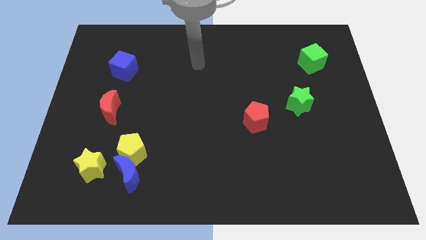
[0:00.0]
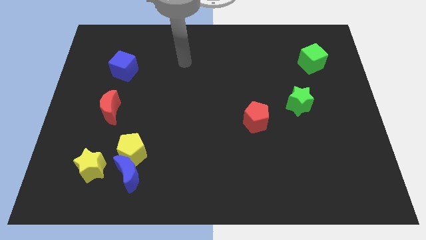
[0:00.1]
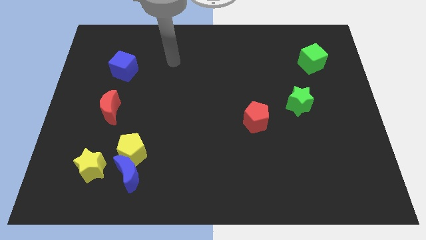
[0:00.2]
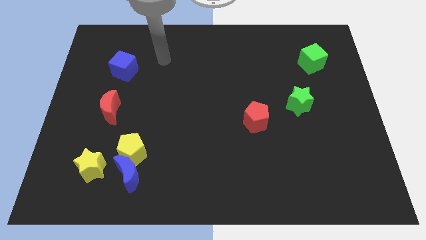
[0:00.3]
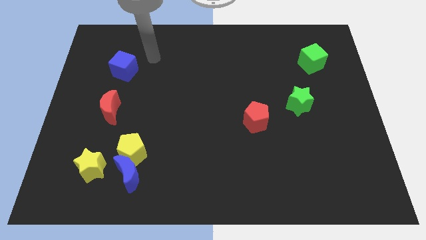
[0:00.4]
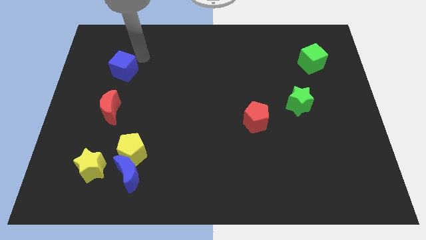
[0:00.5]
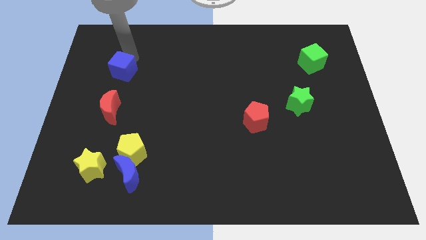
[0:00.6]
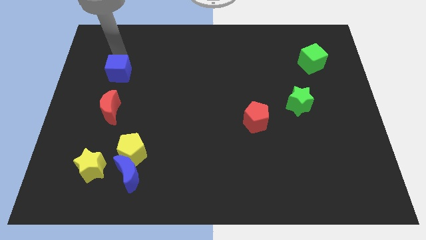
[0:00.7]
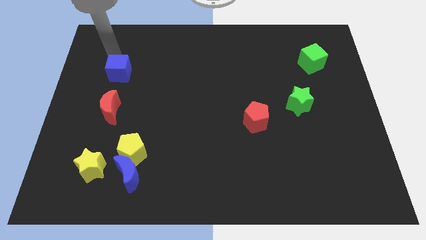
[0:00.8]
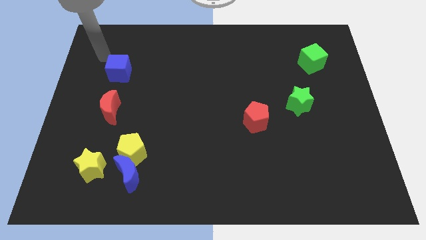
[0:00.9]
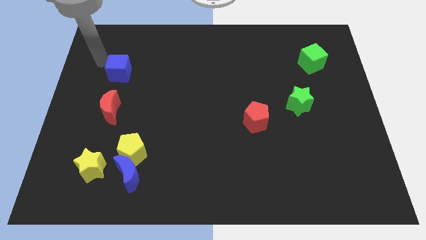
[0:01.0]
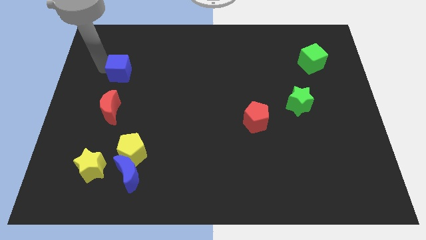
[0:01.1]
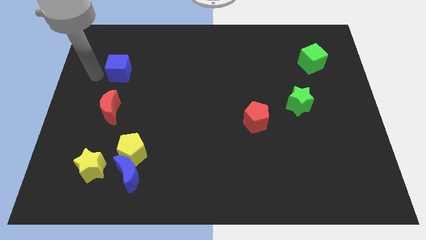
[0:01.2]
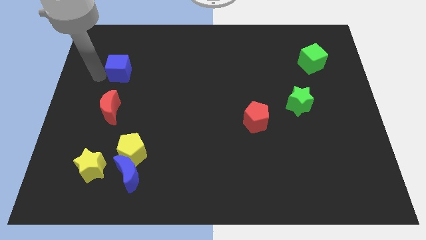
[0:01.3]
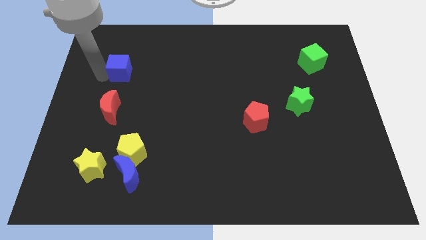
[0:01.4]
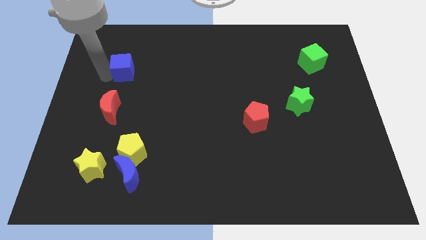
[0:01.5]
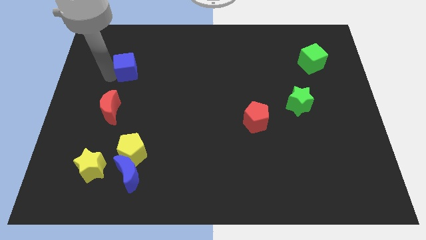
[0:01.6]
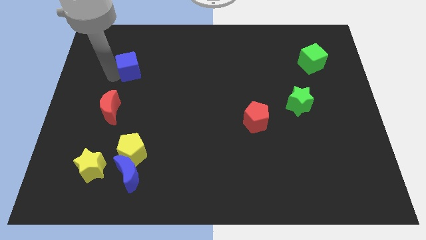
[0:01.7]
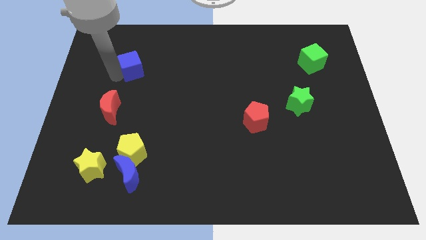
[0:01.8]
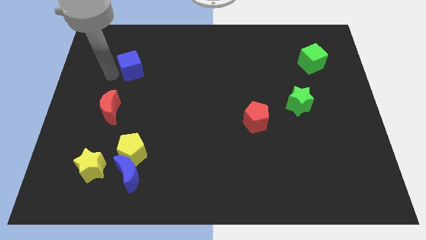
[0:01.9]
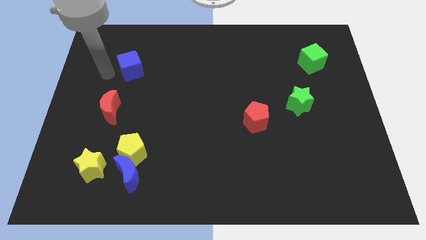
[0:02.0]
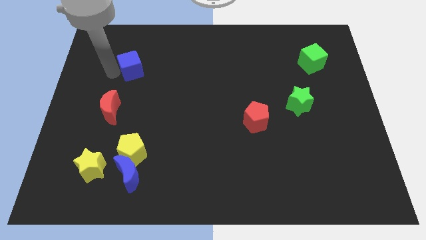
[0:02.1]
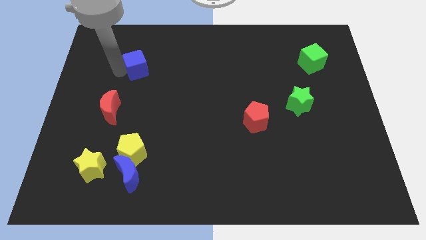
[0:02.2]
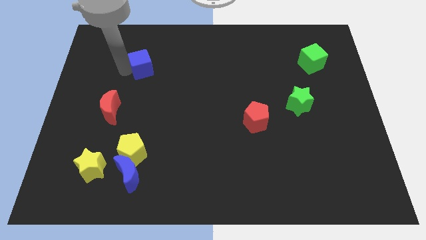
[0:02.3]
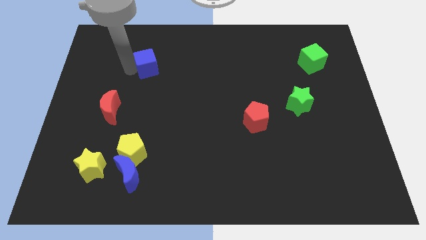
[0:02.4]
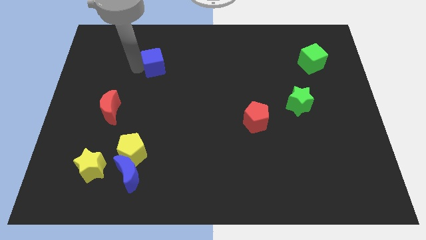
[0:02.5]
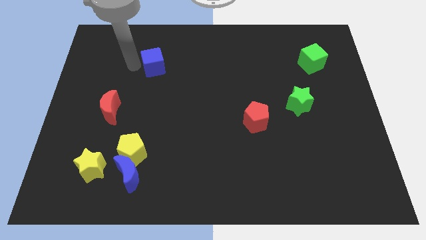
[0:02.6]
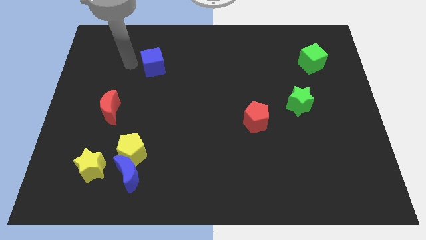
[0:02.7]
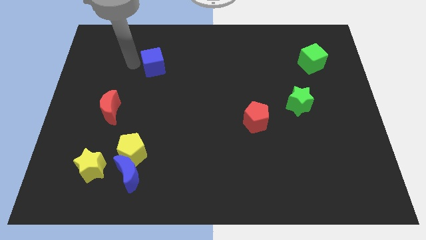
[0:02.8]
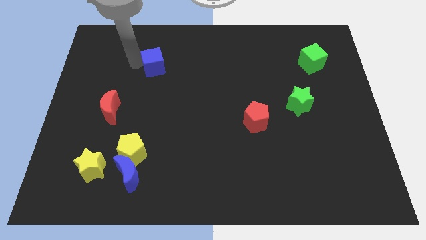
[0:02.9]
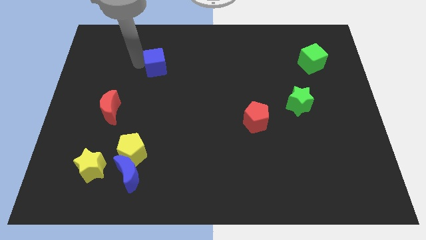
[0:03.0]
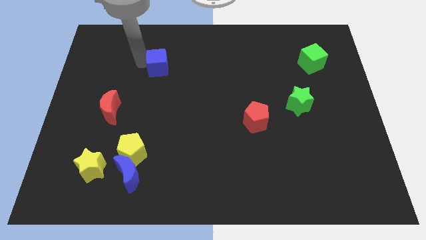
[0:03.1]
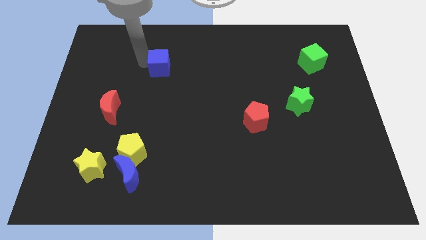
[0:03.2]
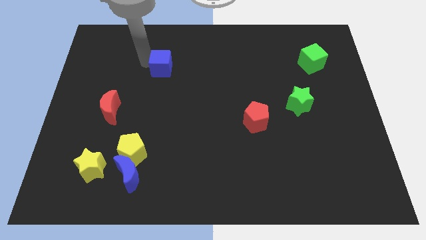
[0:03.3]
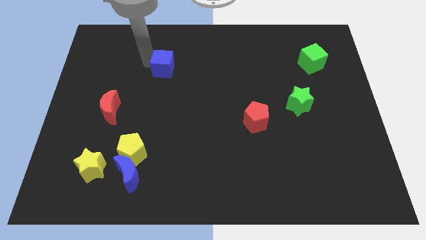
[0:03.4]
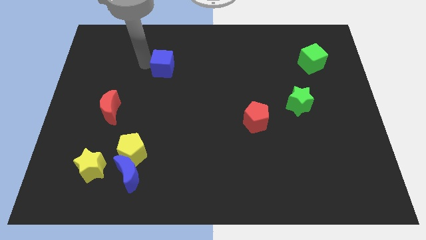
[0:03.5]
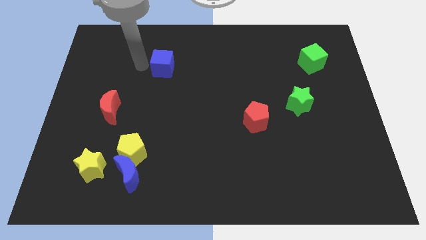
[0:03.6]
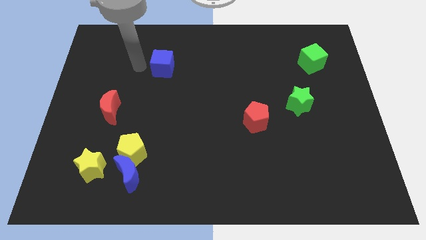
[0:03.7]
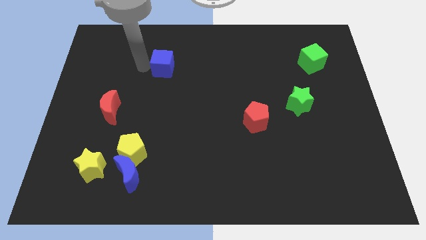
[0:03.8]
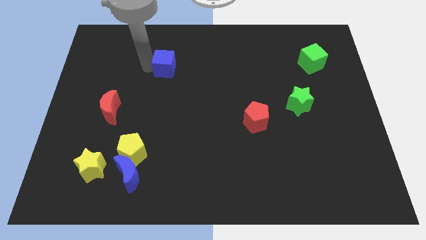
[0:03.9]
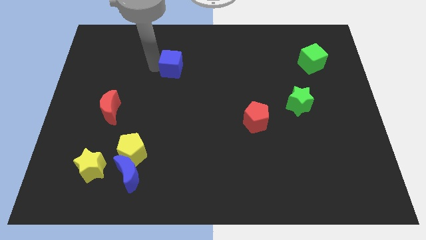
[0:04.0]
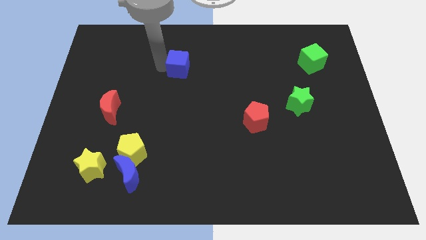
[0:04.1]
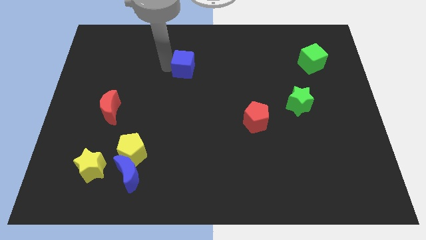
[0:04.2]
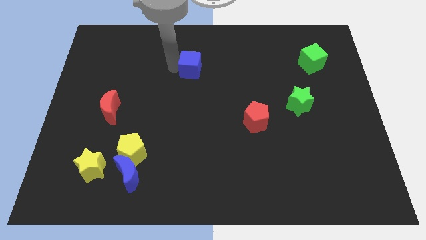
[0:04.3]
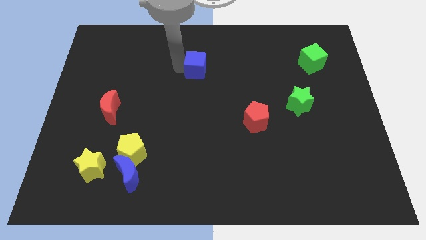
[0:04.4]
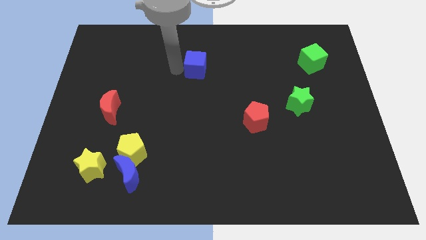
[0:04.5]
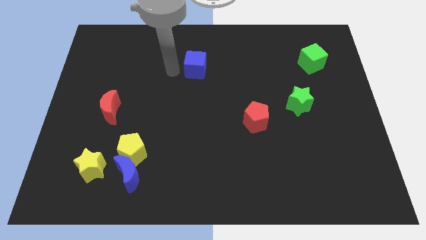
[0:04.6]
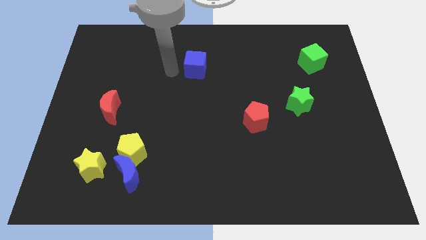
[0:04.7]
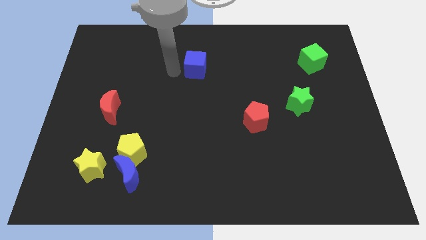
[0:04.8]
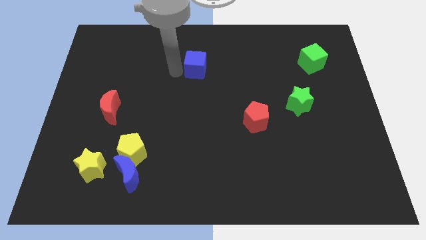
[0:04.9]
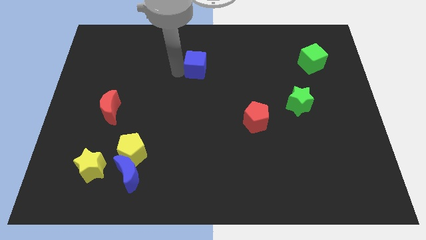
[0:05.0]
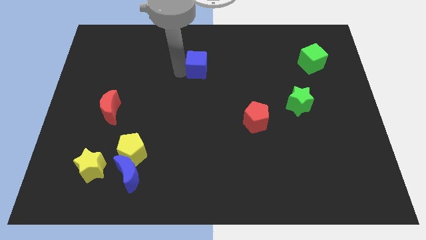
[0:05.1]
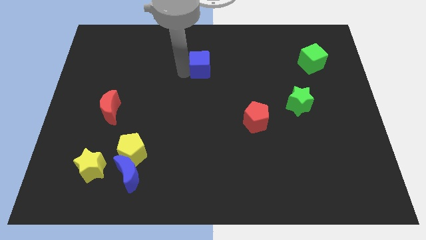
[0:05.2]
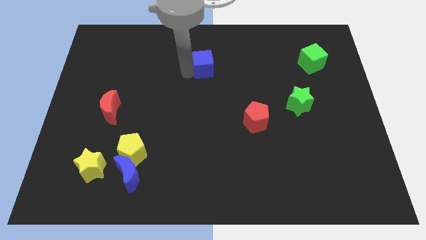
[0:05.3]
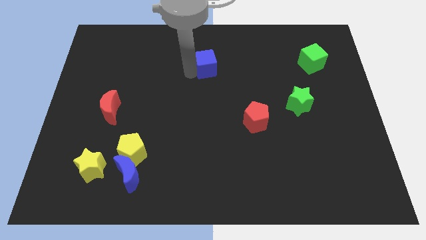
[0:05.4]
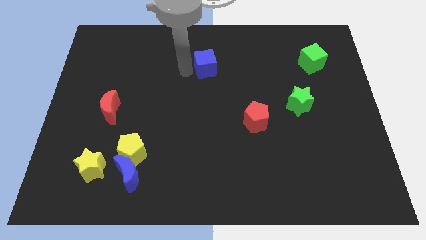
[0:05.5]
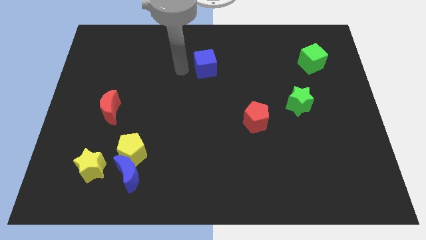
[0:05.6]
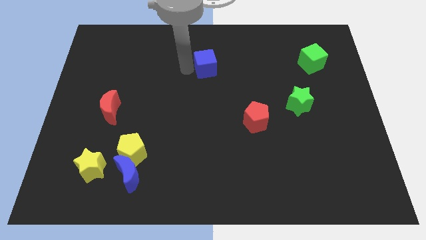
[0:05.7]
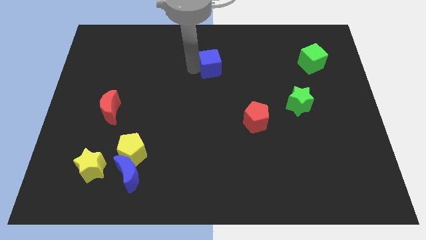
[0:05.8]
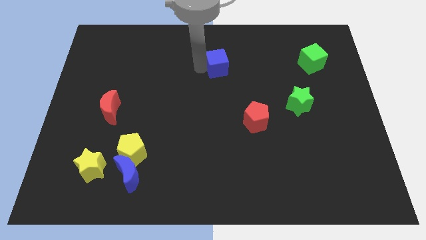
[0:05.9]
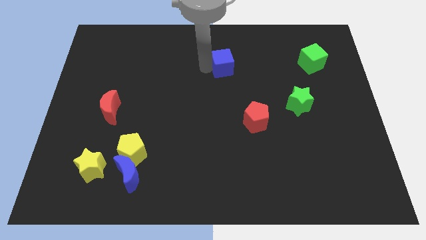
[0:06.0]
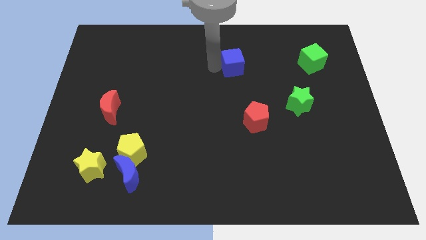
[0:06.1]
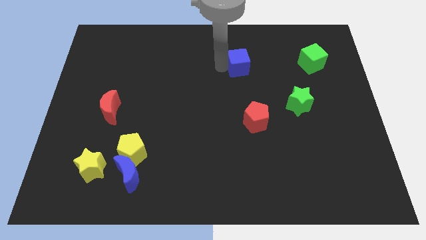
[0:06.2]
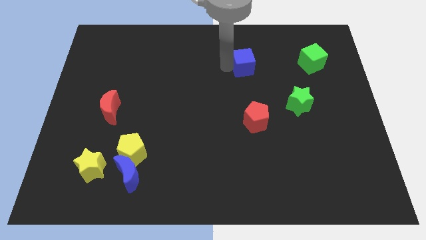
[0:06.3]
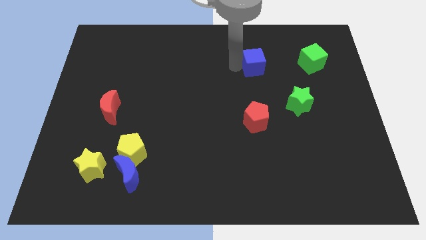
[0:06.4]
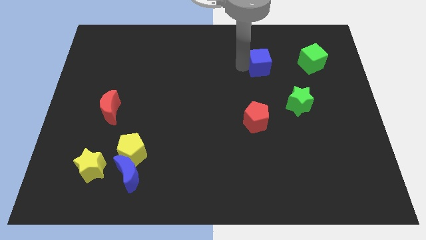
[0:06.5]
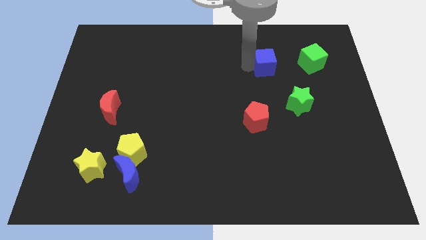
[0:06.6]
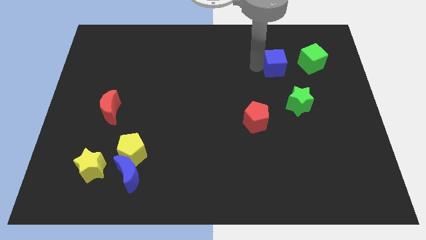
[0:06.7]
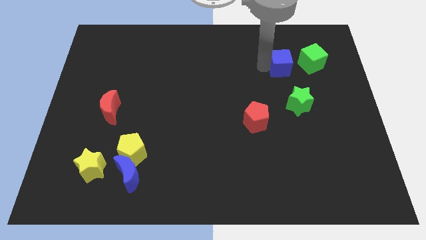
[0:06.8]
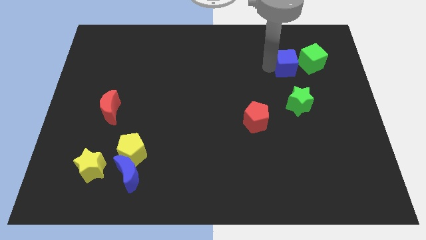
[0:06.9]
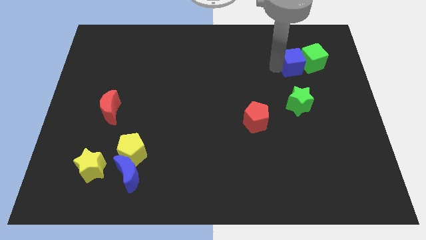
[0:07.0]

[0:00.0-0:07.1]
slide the blue cube to the green cube
